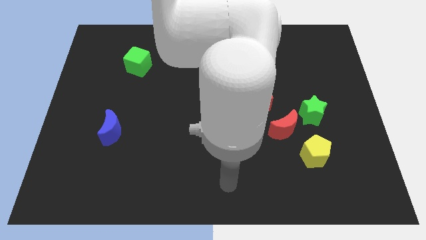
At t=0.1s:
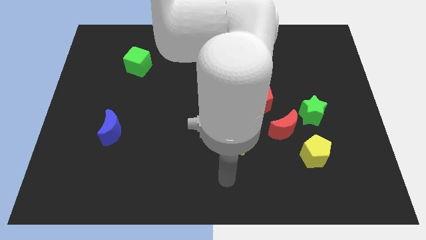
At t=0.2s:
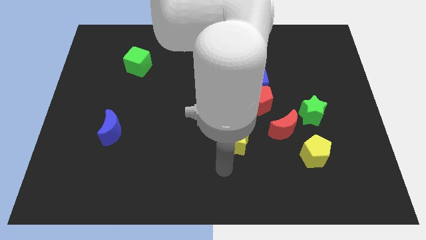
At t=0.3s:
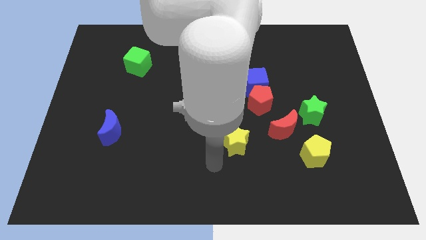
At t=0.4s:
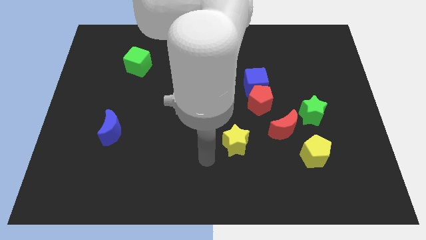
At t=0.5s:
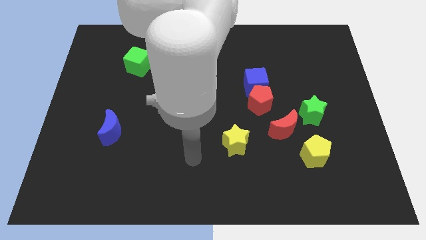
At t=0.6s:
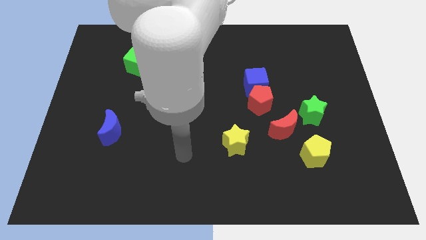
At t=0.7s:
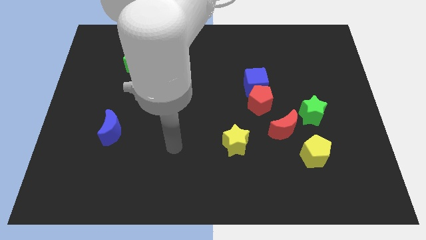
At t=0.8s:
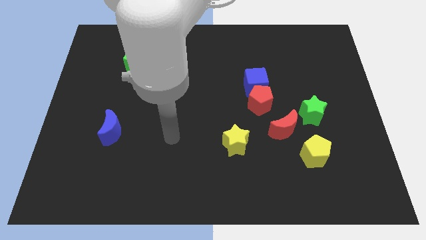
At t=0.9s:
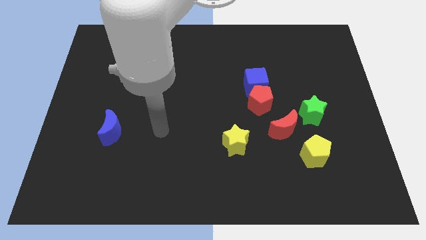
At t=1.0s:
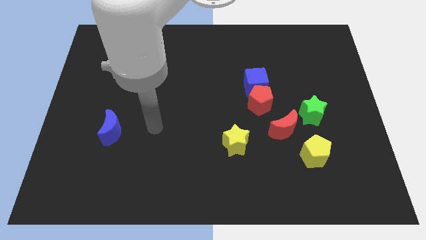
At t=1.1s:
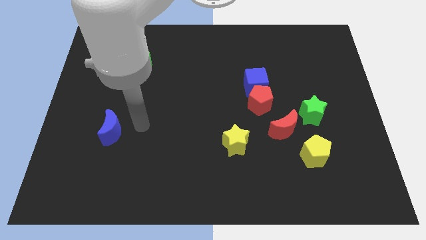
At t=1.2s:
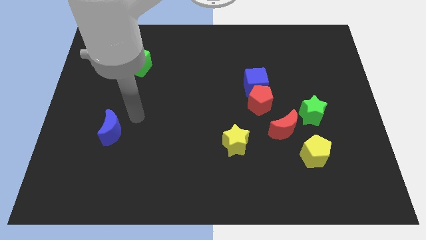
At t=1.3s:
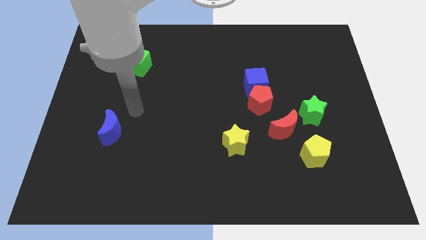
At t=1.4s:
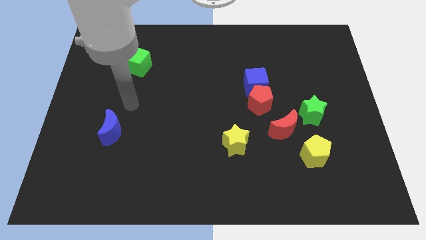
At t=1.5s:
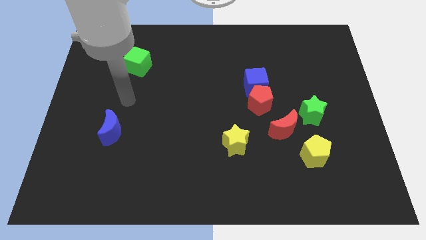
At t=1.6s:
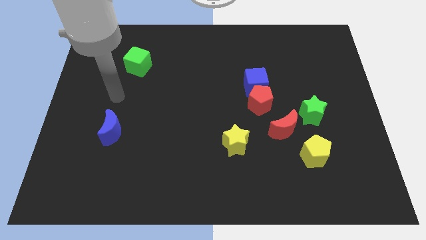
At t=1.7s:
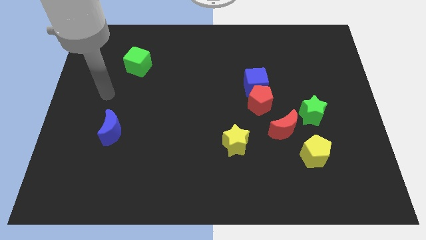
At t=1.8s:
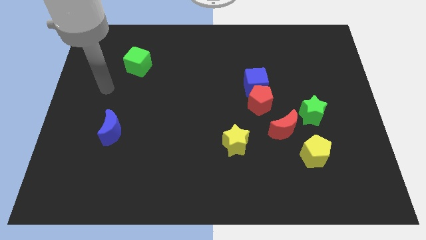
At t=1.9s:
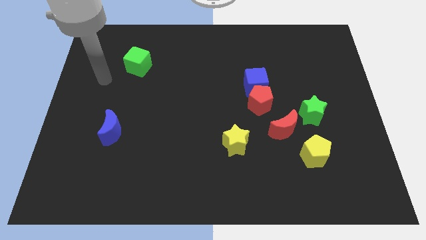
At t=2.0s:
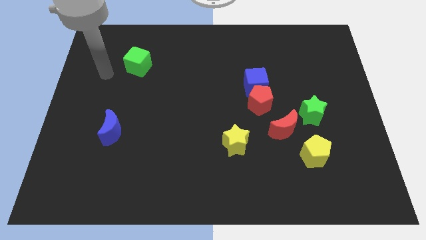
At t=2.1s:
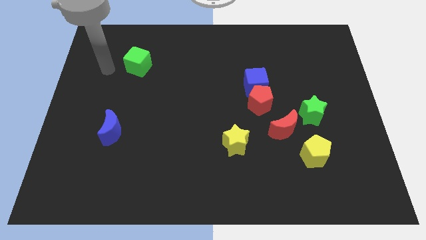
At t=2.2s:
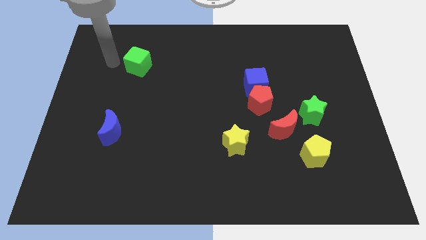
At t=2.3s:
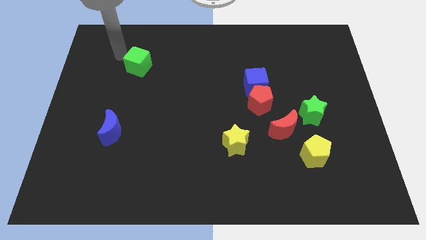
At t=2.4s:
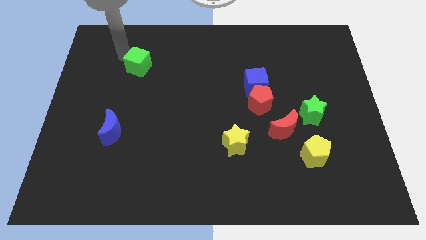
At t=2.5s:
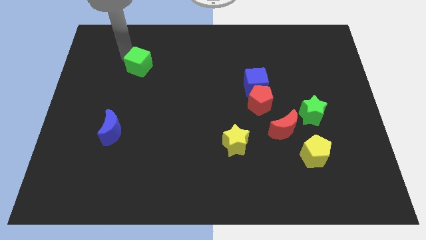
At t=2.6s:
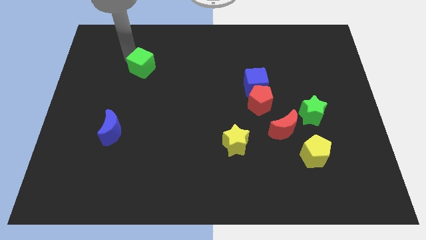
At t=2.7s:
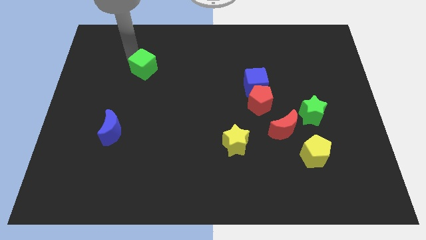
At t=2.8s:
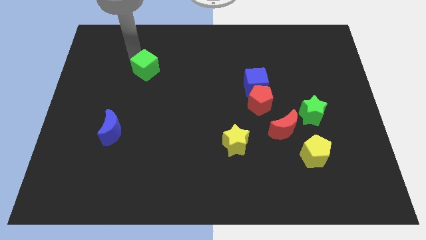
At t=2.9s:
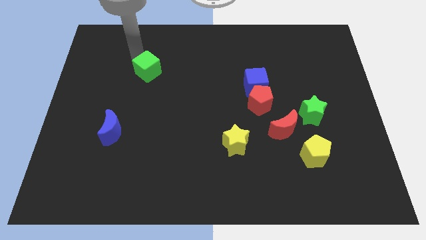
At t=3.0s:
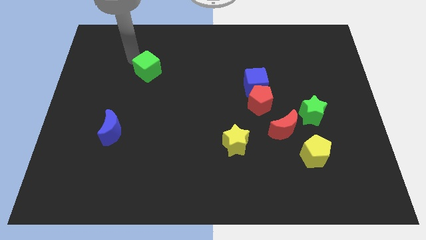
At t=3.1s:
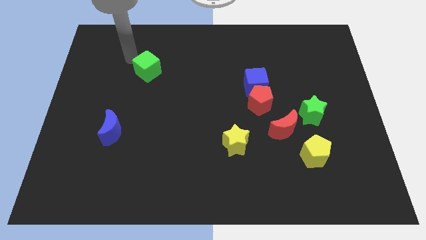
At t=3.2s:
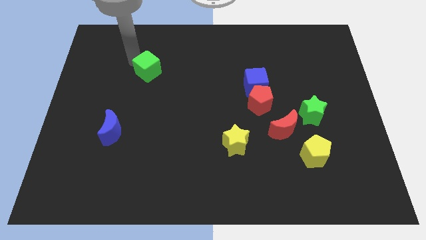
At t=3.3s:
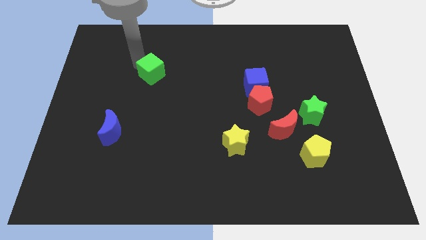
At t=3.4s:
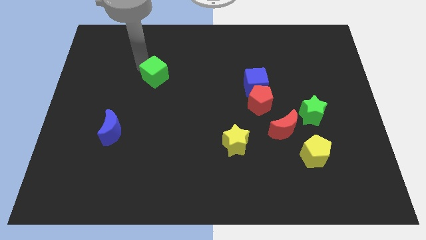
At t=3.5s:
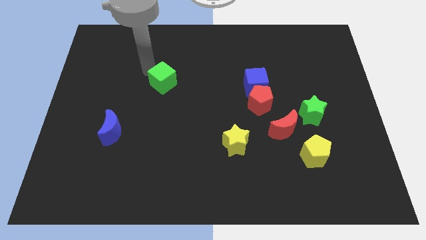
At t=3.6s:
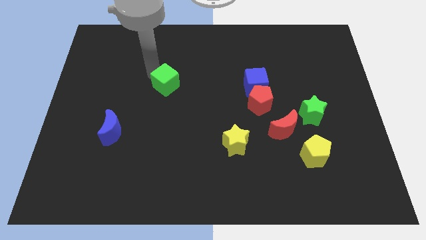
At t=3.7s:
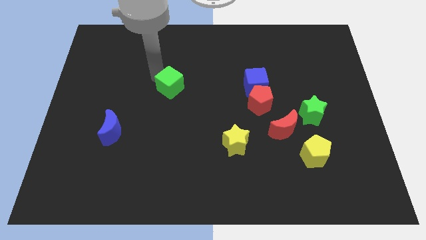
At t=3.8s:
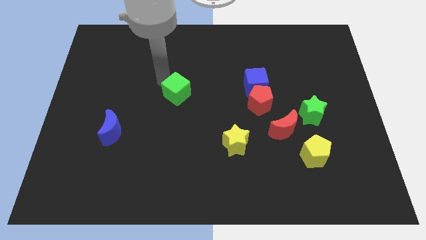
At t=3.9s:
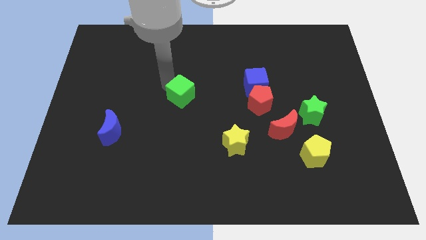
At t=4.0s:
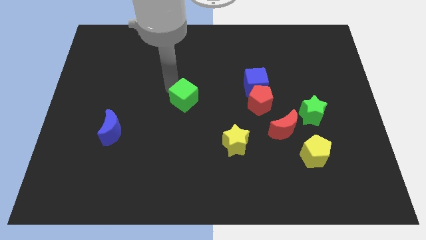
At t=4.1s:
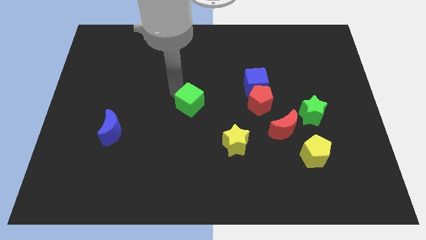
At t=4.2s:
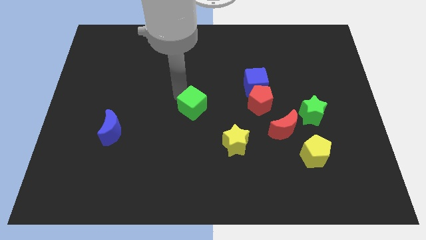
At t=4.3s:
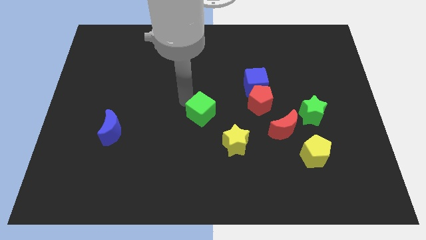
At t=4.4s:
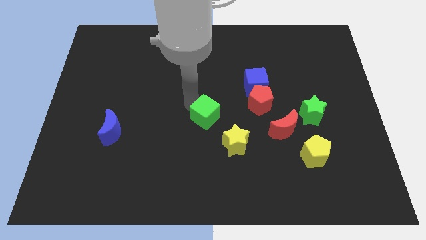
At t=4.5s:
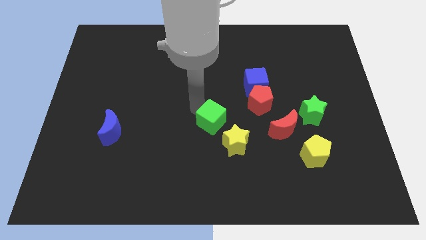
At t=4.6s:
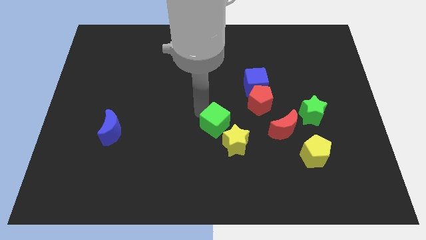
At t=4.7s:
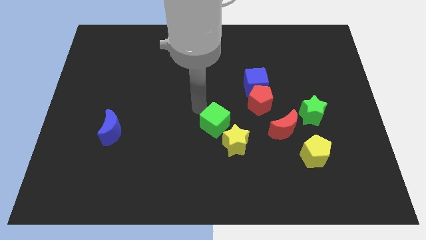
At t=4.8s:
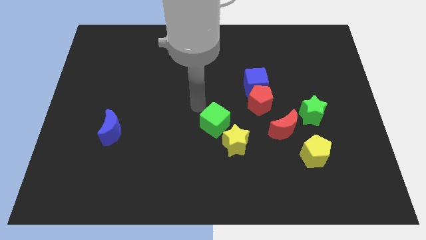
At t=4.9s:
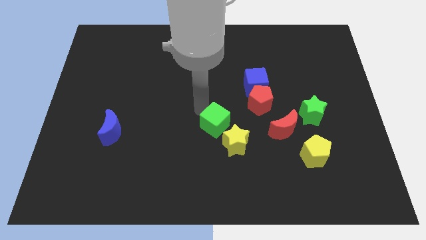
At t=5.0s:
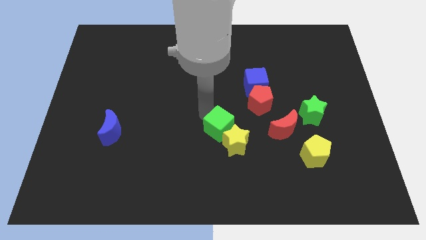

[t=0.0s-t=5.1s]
move the green cube towards the yellow star

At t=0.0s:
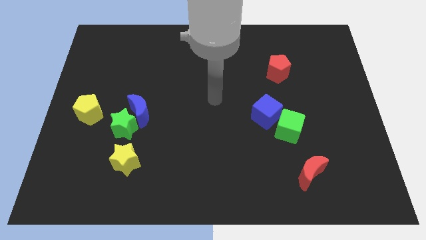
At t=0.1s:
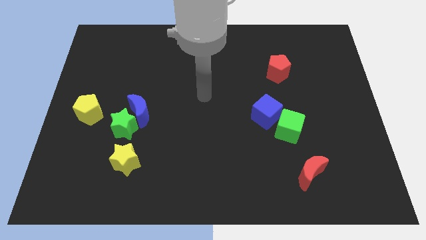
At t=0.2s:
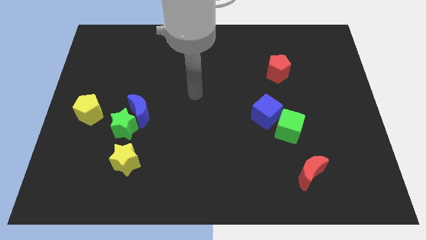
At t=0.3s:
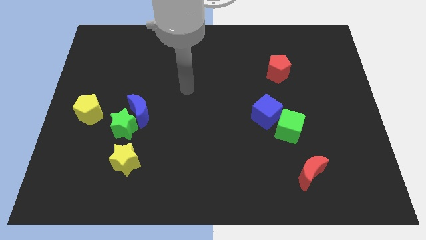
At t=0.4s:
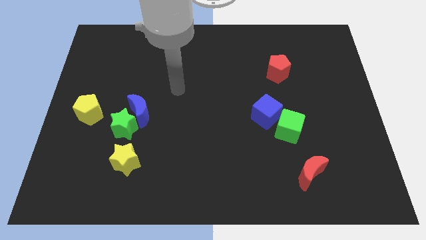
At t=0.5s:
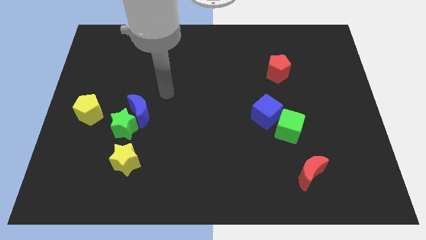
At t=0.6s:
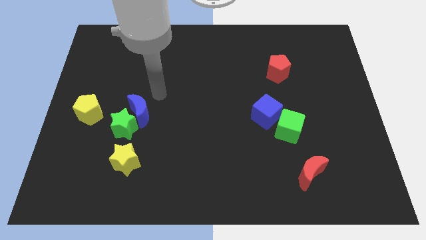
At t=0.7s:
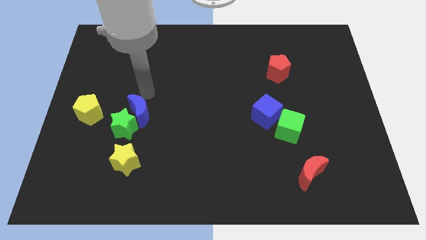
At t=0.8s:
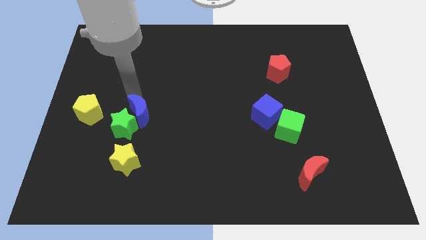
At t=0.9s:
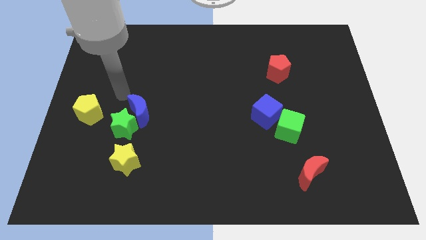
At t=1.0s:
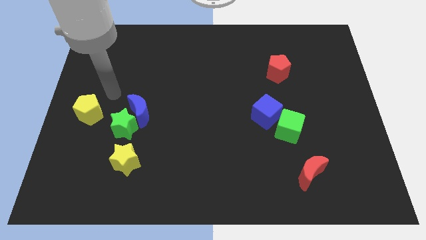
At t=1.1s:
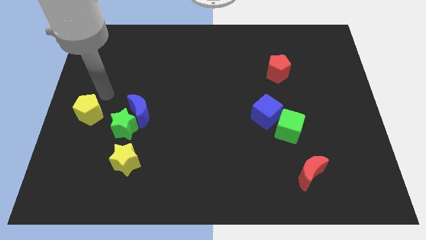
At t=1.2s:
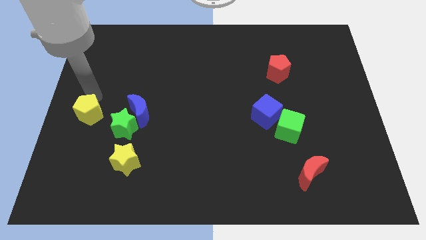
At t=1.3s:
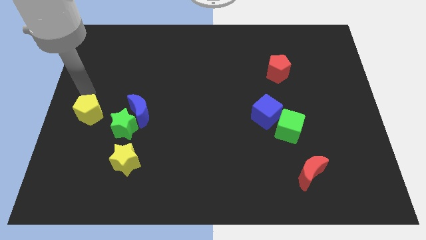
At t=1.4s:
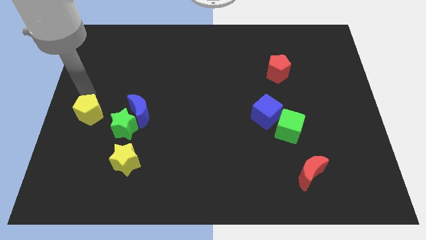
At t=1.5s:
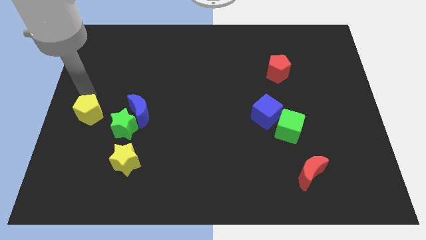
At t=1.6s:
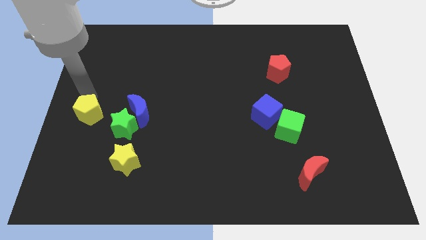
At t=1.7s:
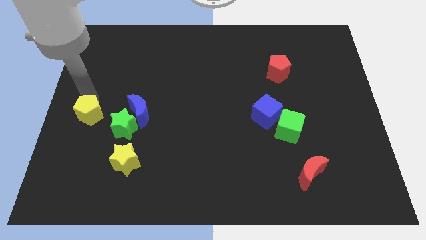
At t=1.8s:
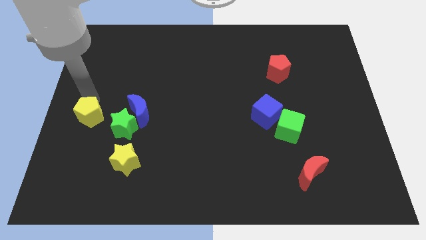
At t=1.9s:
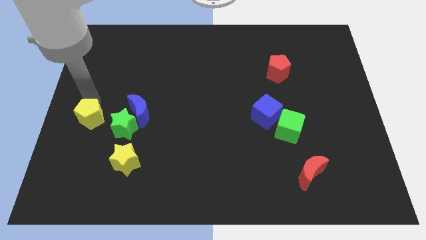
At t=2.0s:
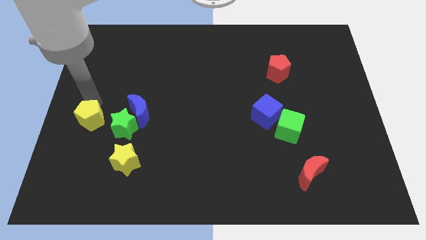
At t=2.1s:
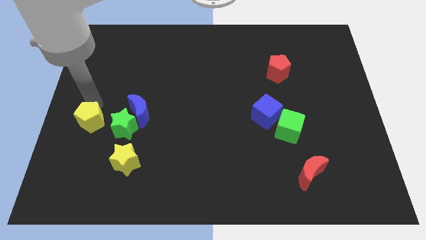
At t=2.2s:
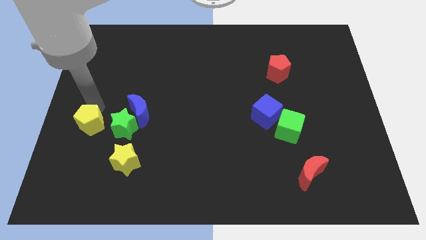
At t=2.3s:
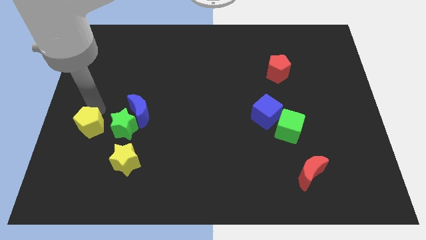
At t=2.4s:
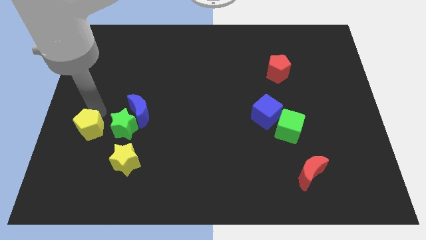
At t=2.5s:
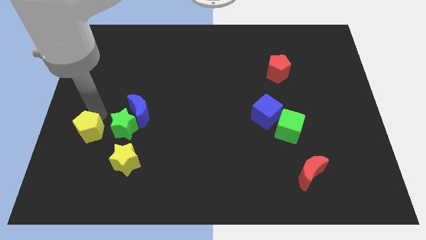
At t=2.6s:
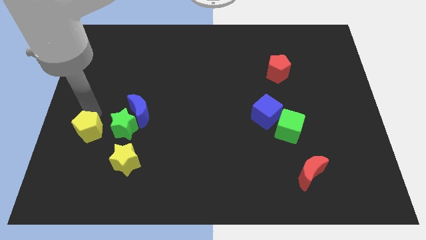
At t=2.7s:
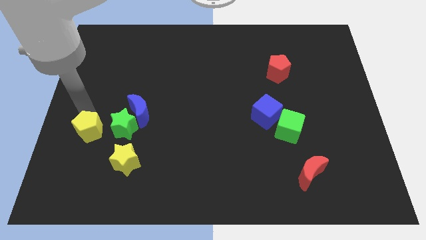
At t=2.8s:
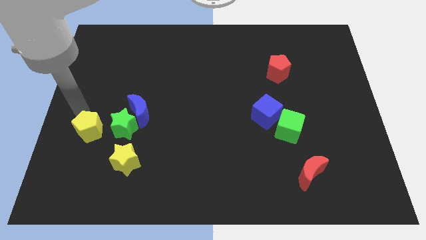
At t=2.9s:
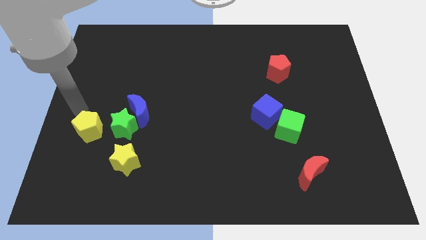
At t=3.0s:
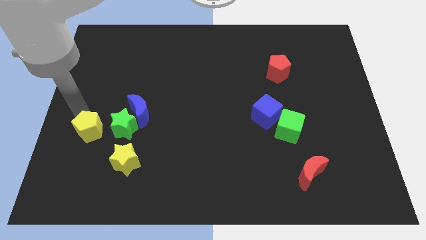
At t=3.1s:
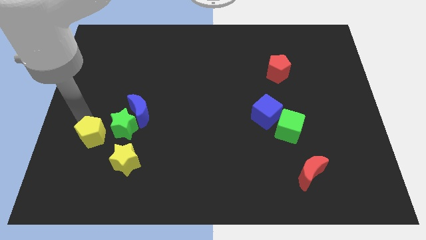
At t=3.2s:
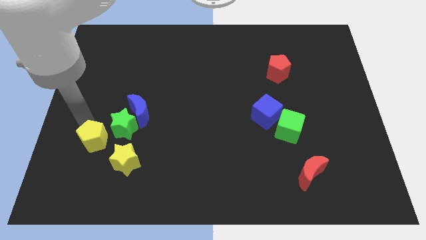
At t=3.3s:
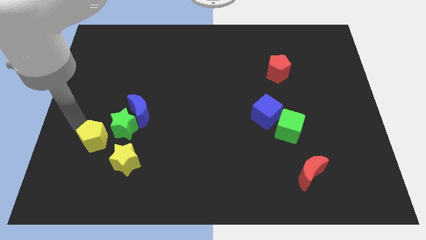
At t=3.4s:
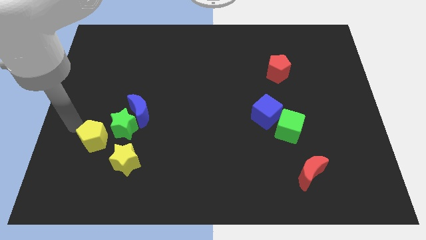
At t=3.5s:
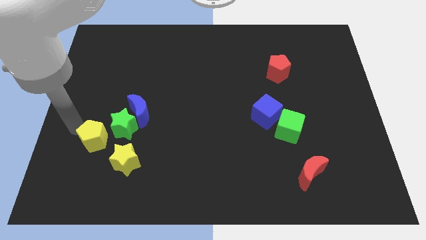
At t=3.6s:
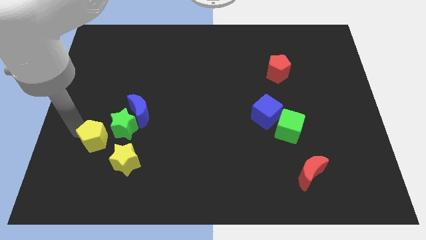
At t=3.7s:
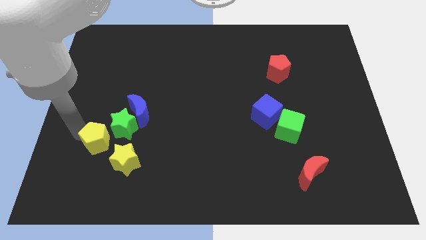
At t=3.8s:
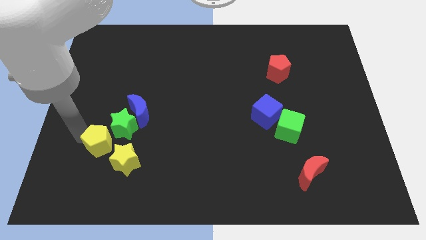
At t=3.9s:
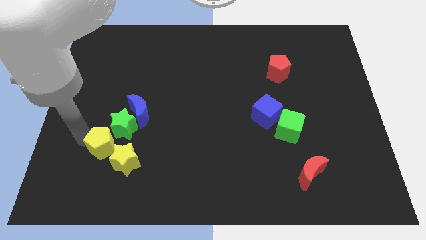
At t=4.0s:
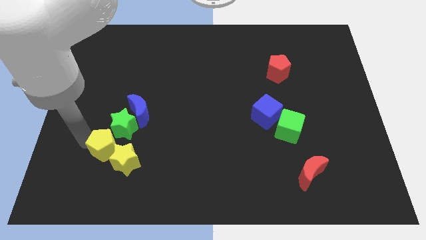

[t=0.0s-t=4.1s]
slide the yellow pentagon towards the yellow star
